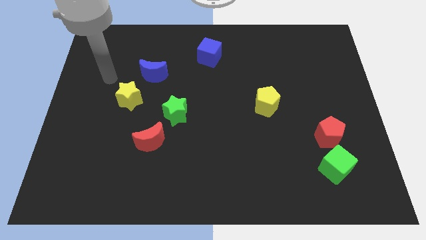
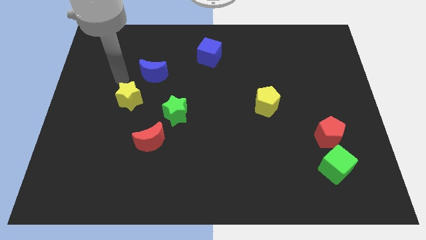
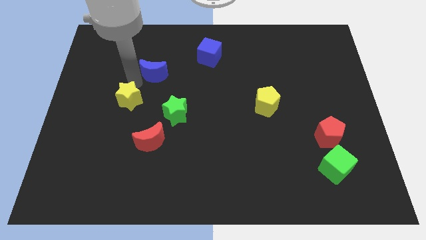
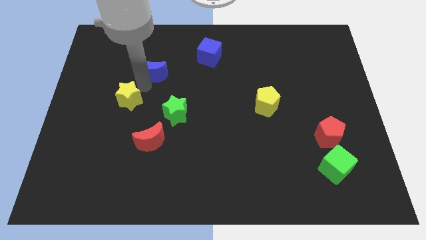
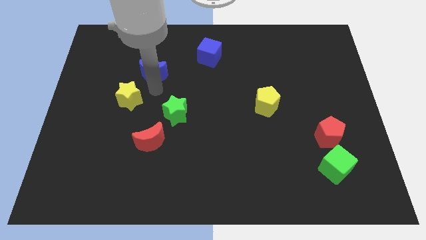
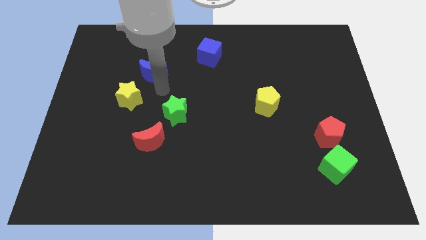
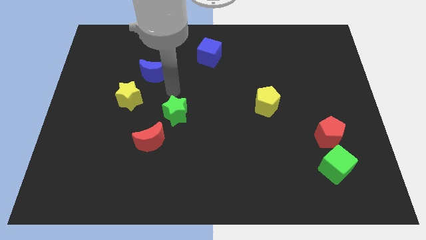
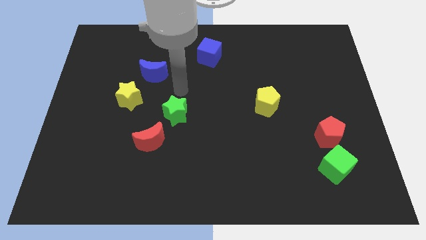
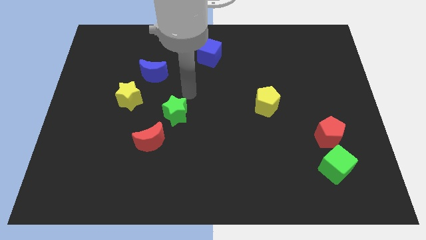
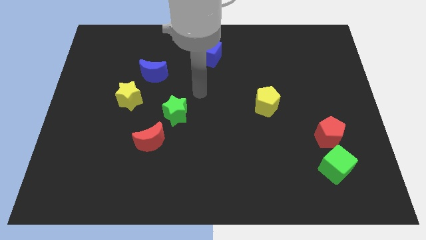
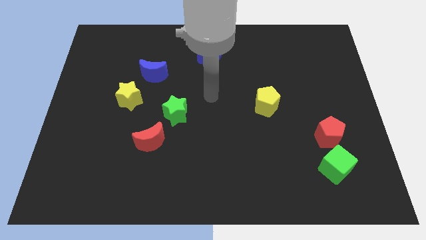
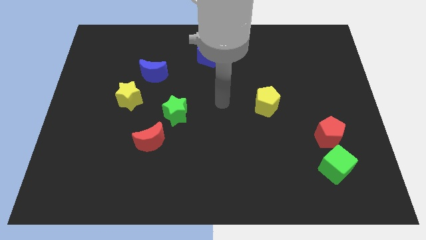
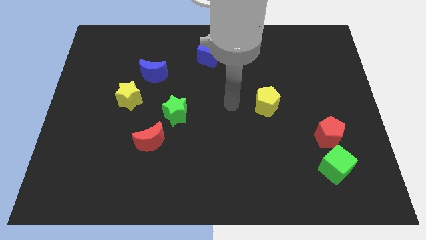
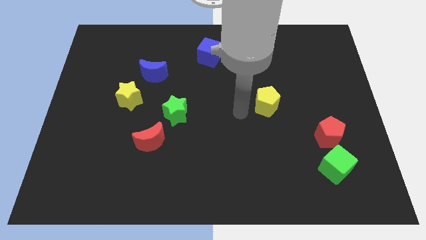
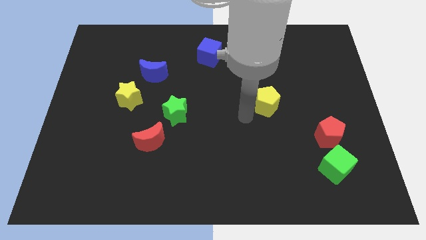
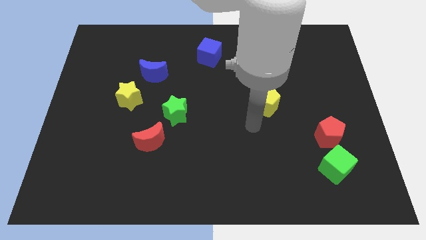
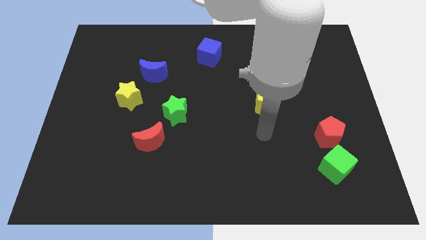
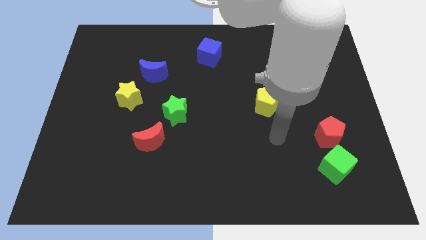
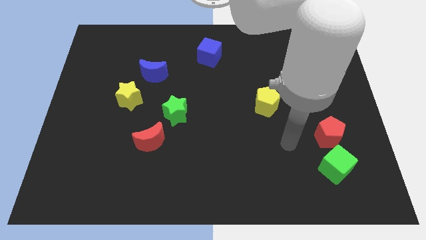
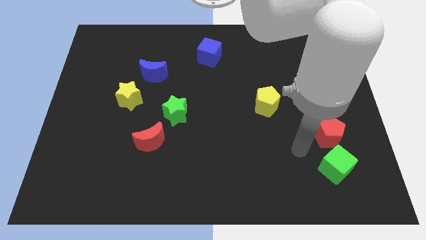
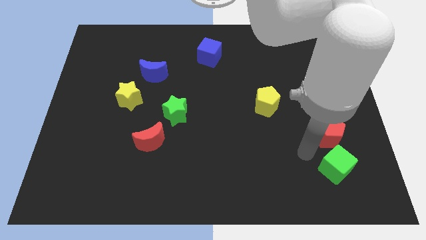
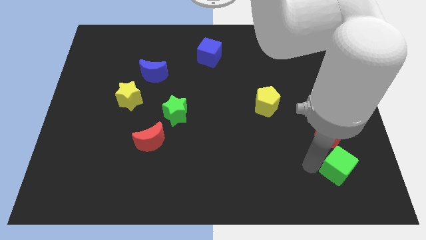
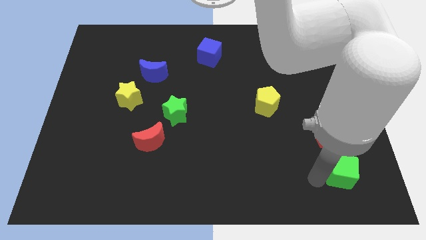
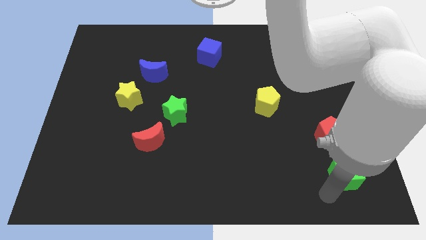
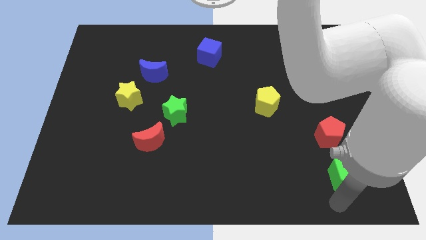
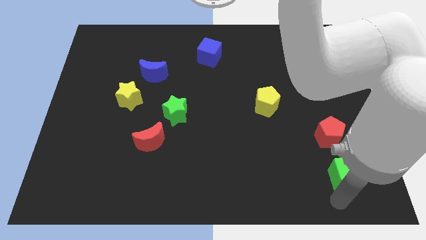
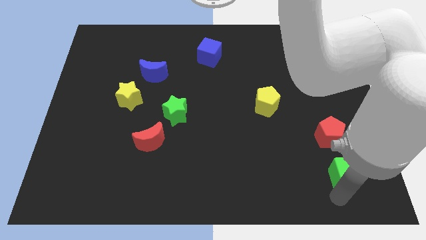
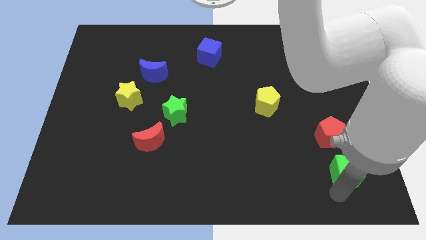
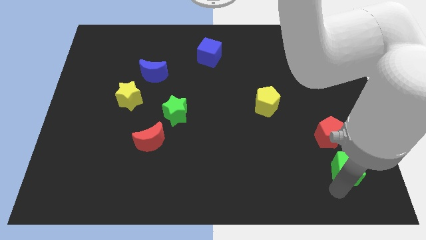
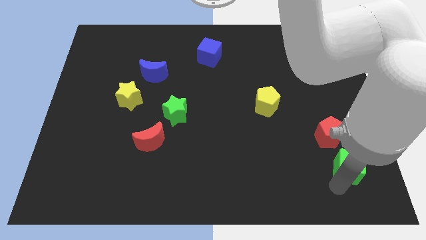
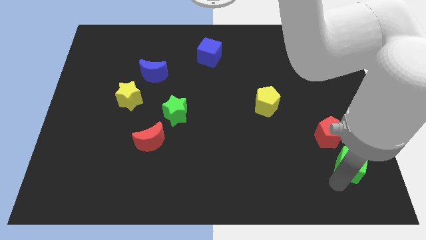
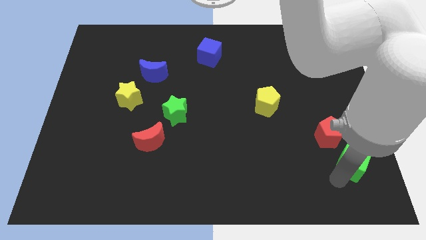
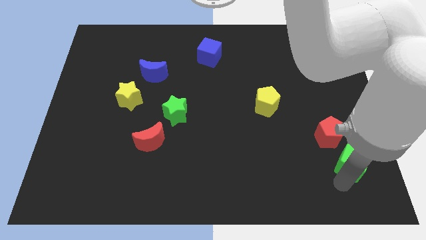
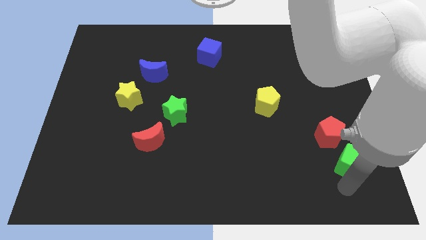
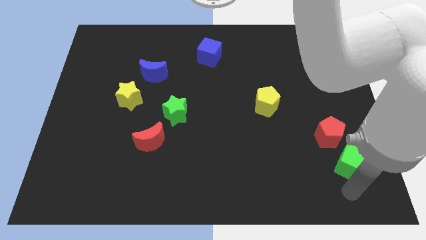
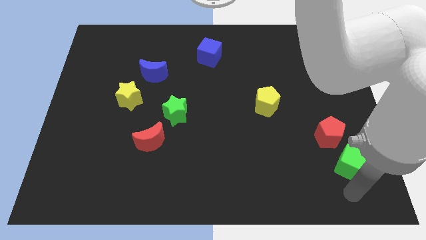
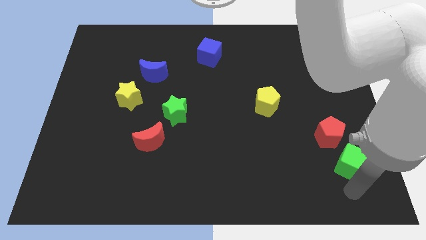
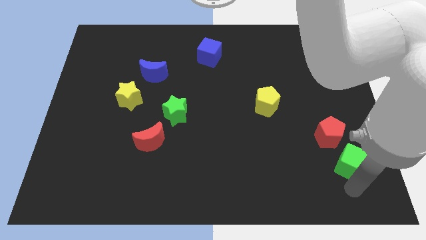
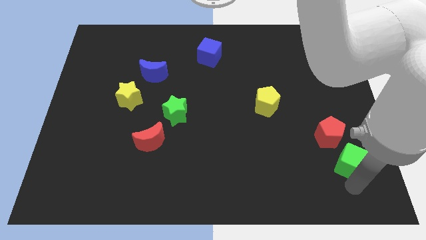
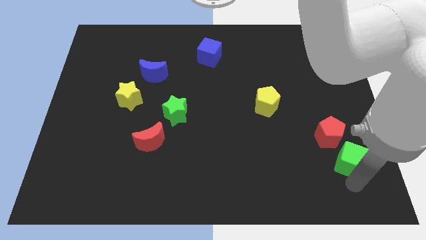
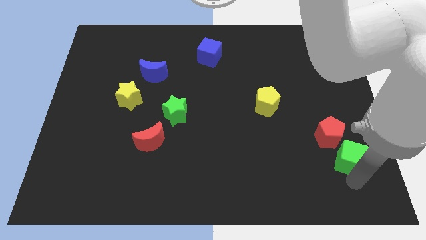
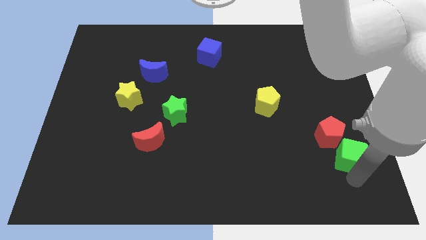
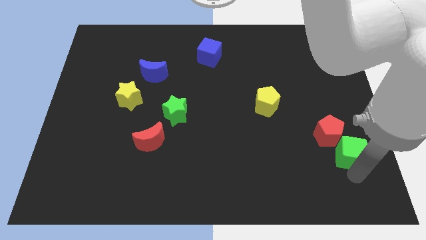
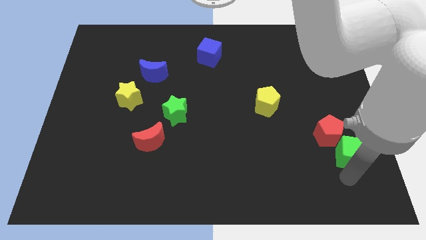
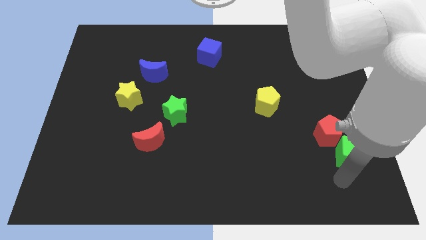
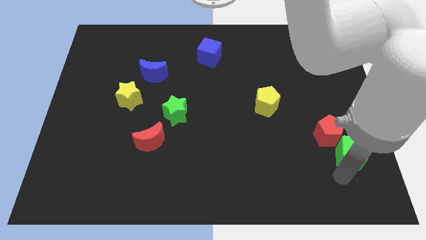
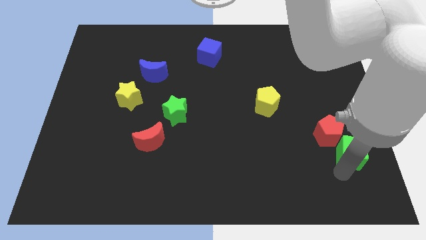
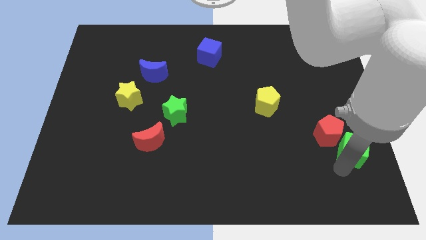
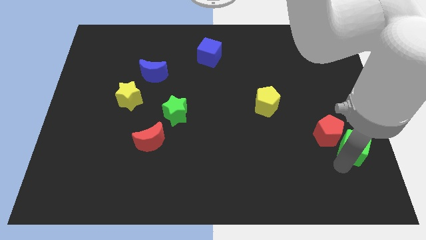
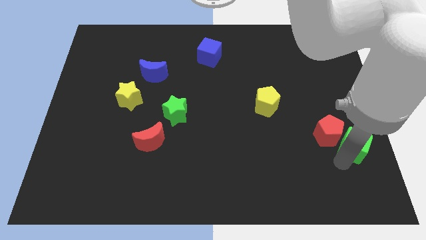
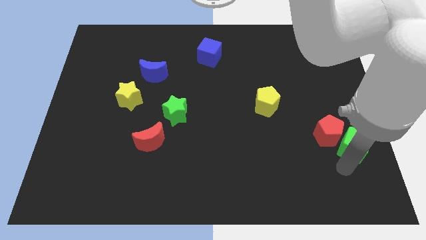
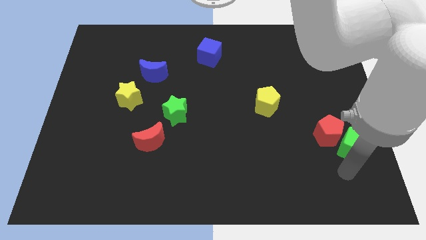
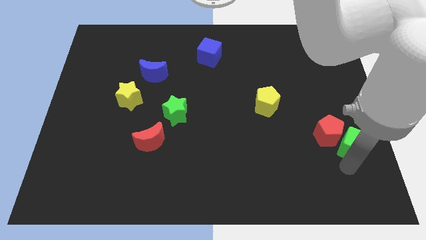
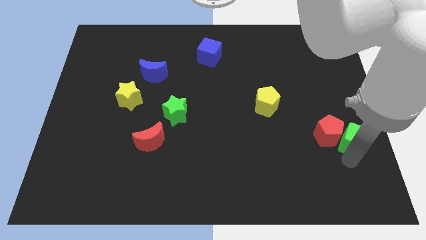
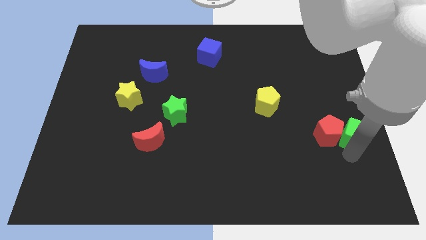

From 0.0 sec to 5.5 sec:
push the green cube to the center right

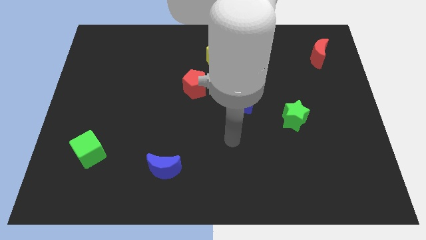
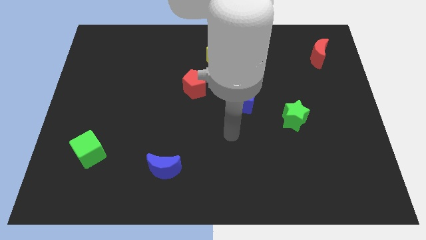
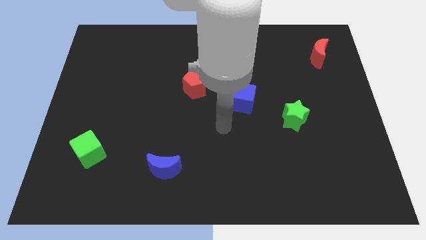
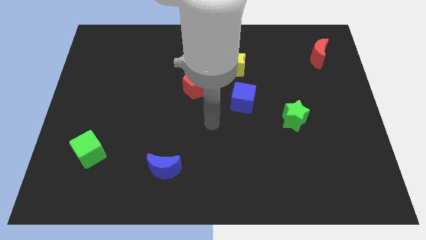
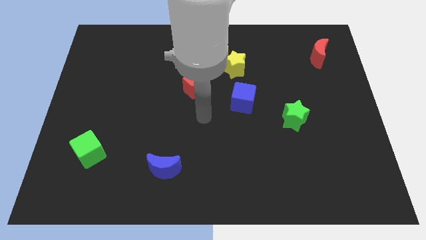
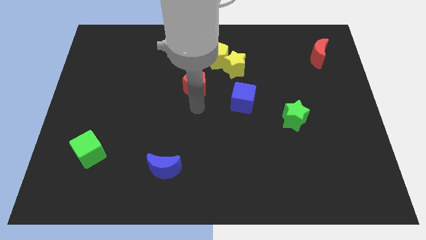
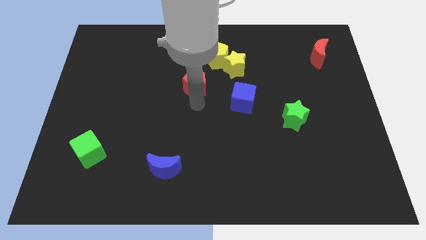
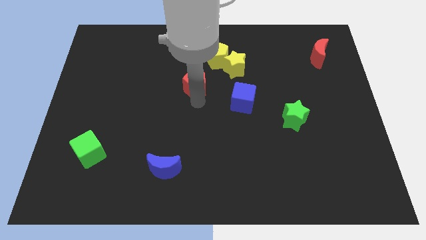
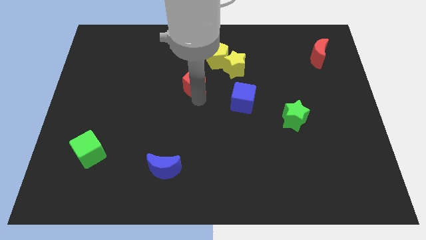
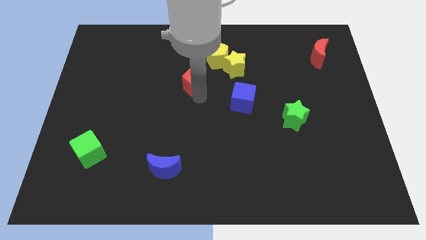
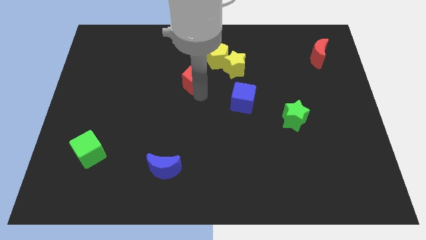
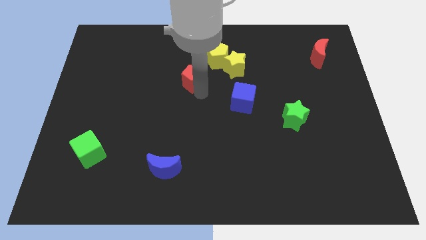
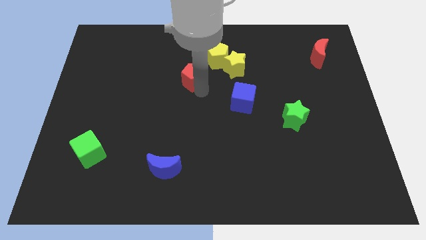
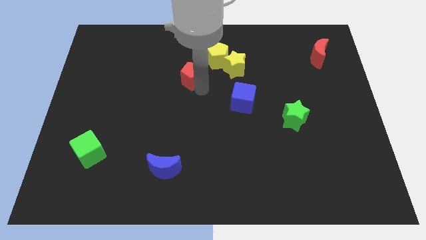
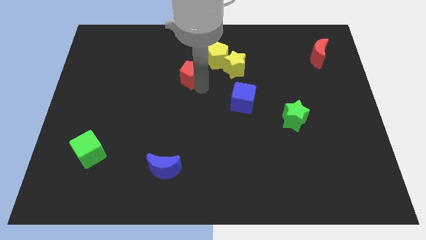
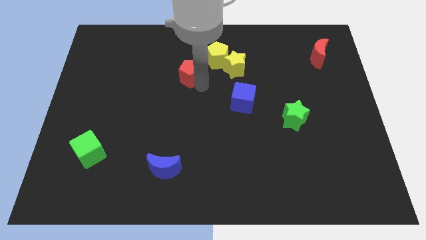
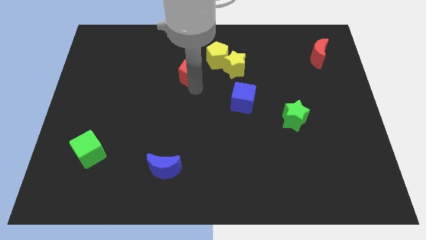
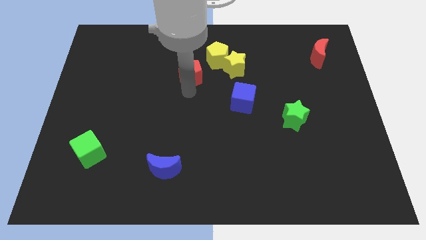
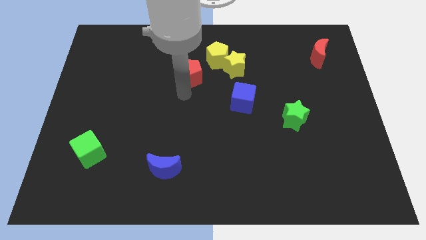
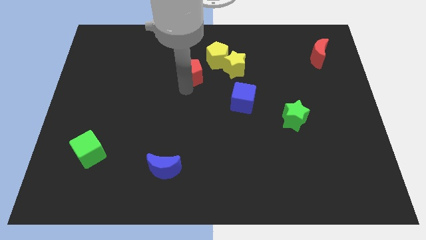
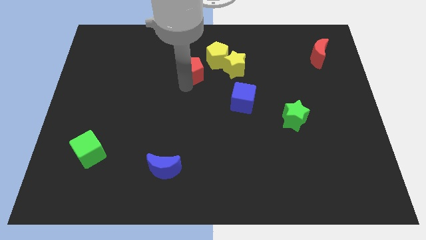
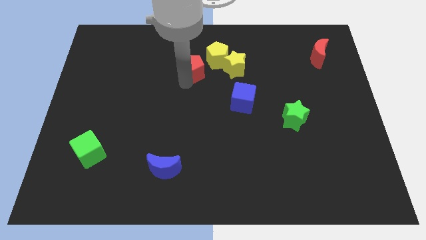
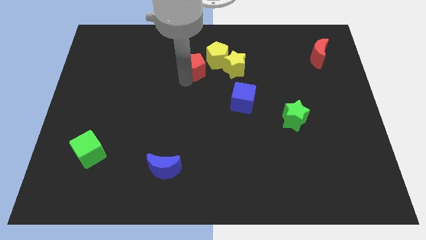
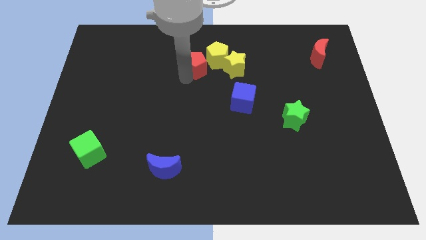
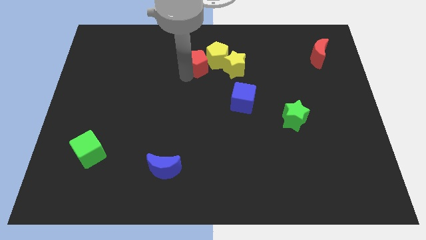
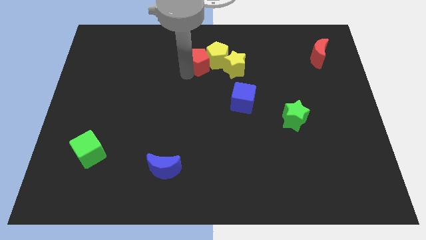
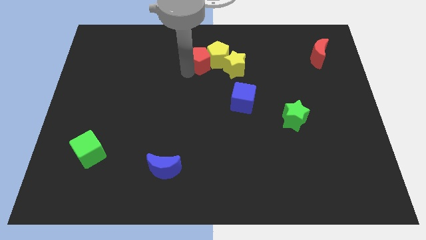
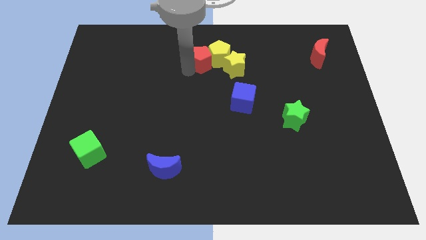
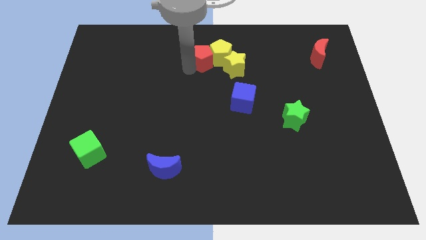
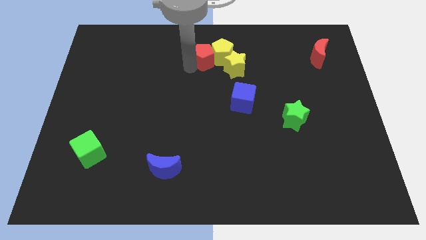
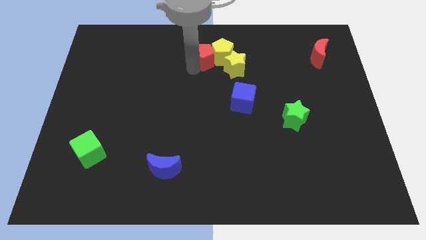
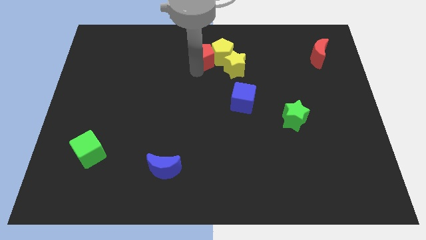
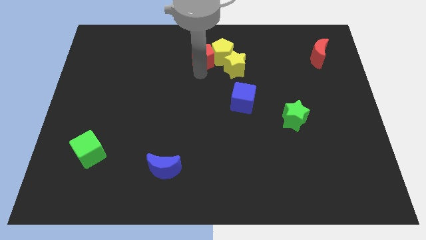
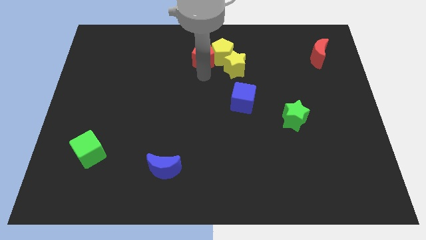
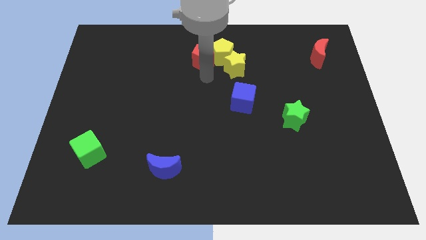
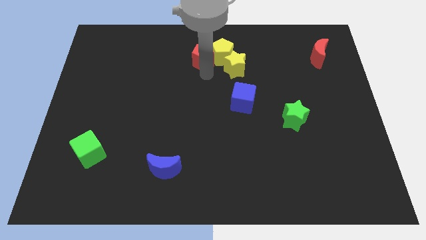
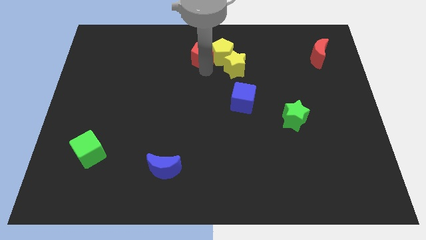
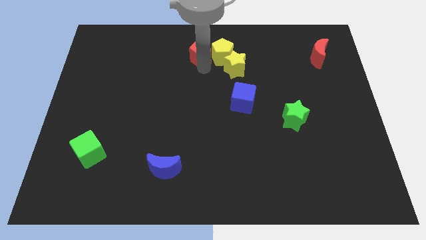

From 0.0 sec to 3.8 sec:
push the red pentagon to the top side
